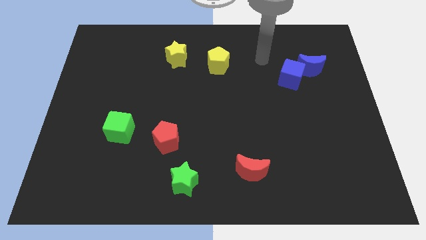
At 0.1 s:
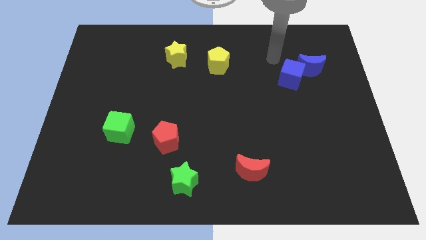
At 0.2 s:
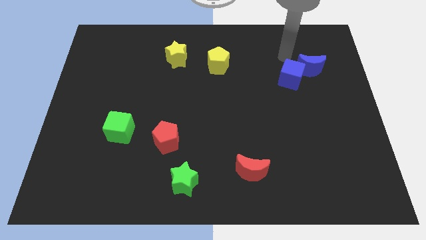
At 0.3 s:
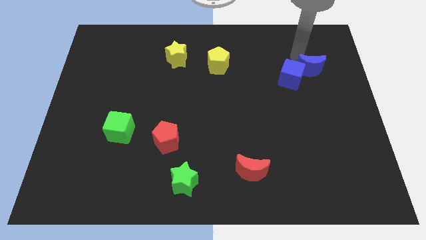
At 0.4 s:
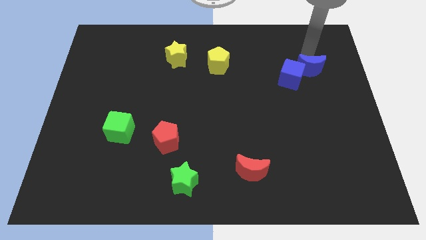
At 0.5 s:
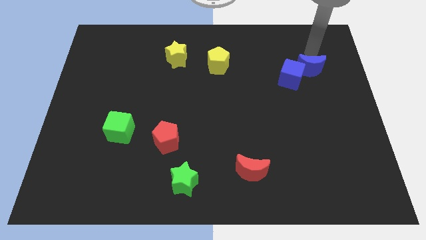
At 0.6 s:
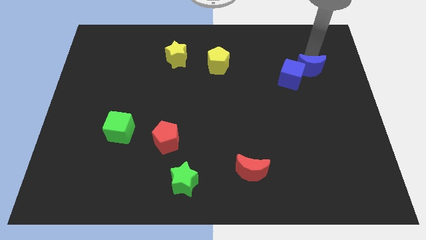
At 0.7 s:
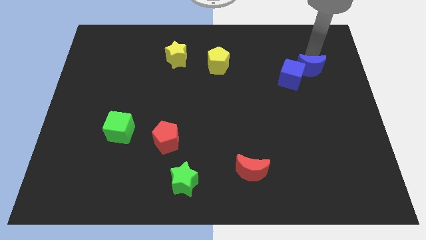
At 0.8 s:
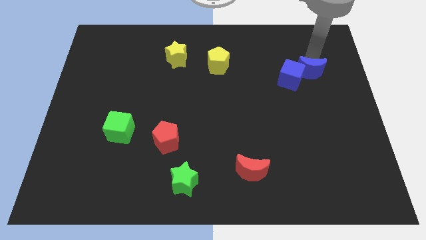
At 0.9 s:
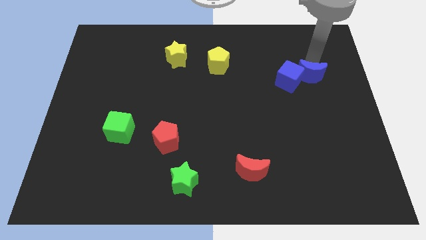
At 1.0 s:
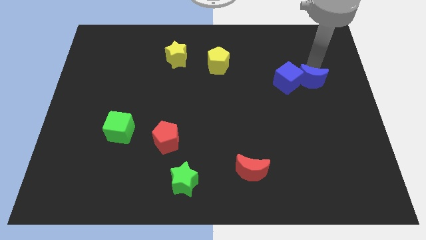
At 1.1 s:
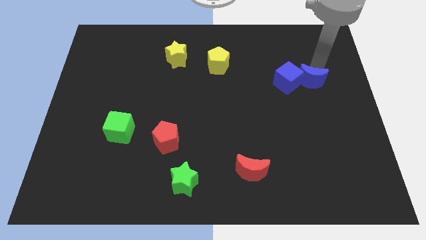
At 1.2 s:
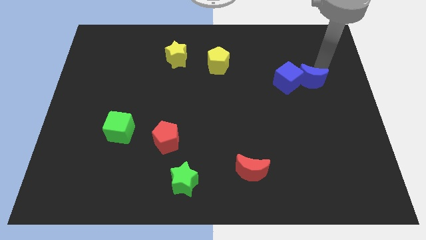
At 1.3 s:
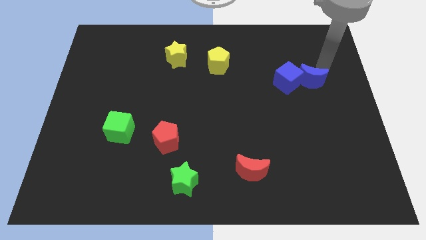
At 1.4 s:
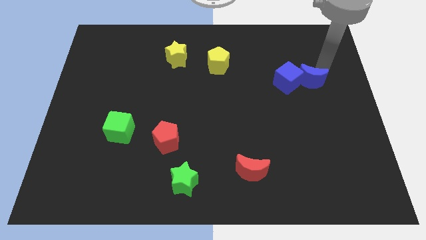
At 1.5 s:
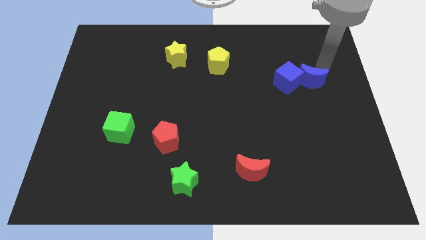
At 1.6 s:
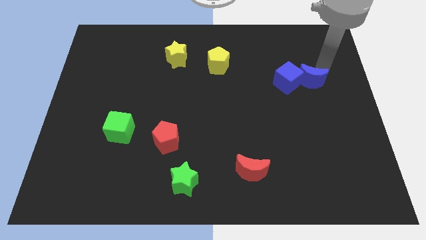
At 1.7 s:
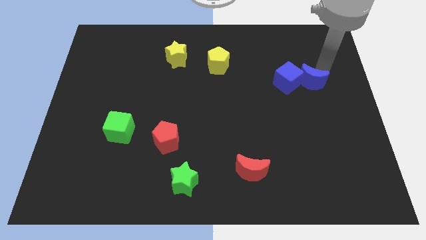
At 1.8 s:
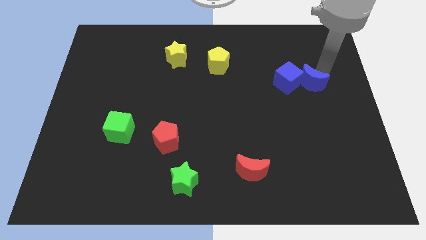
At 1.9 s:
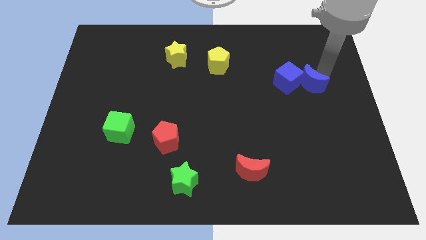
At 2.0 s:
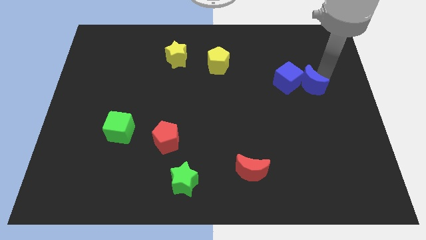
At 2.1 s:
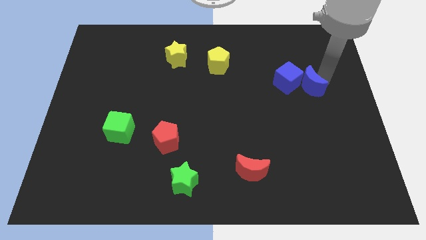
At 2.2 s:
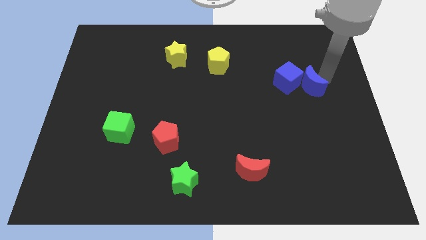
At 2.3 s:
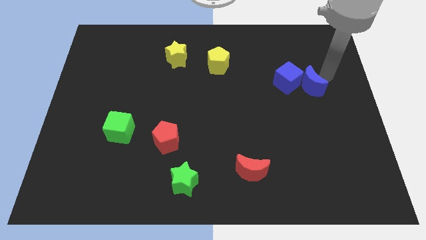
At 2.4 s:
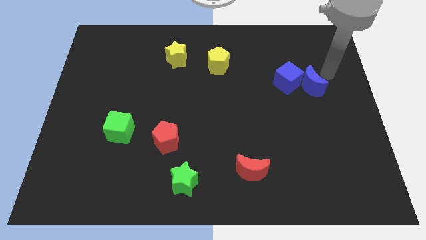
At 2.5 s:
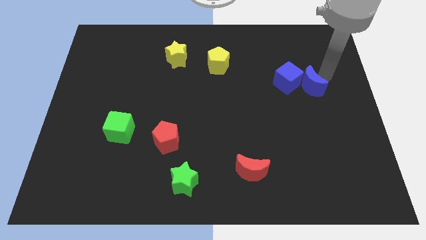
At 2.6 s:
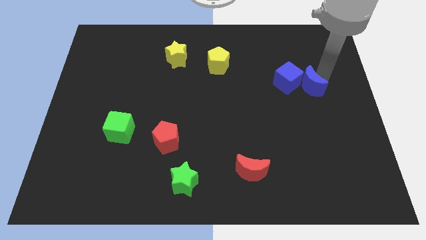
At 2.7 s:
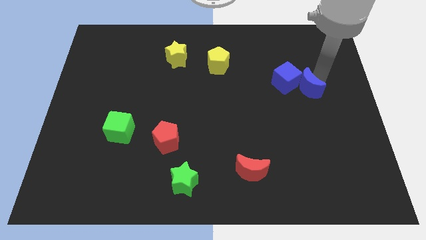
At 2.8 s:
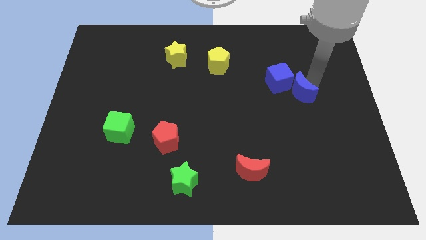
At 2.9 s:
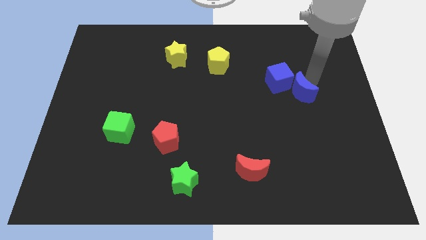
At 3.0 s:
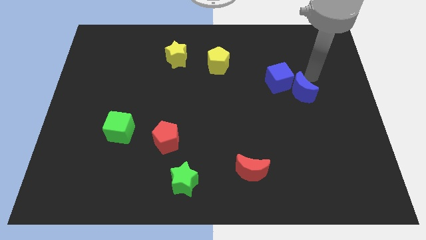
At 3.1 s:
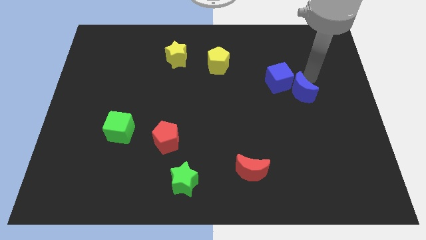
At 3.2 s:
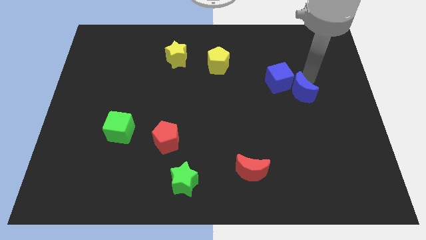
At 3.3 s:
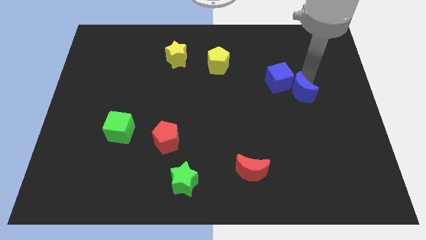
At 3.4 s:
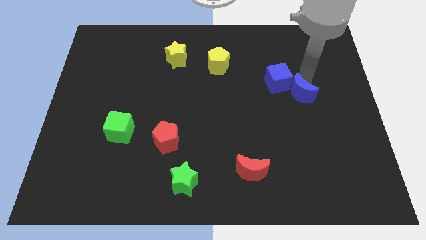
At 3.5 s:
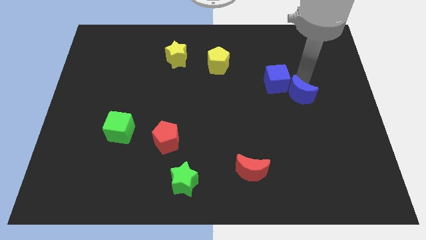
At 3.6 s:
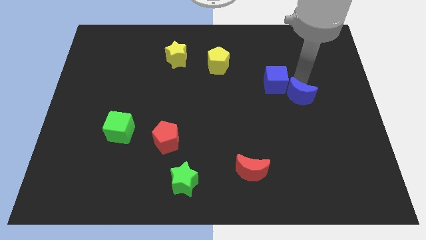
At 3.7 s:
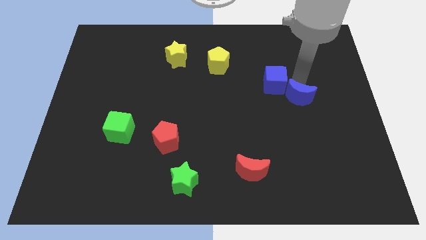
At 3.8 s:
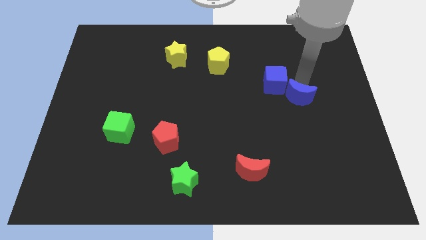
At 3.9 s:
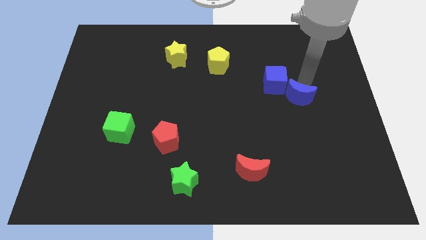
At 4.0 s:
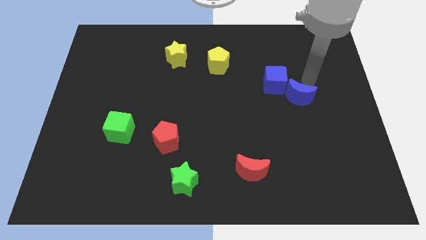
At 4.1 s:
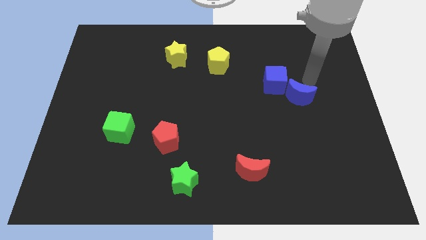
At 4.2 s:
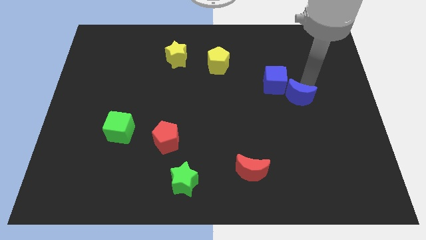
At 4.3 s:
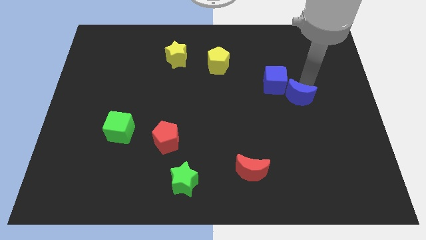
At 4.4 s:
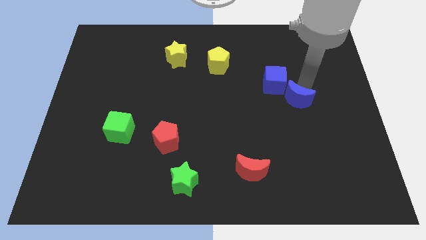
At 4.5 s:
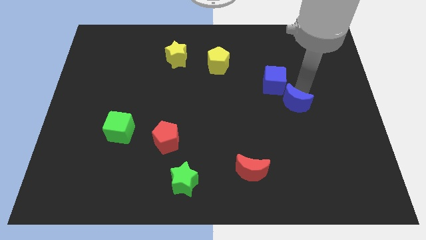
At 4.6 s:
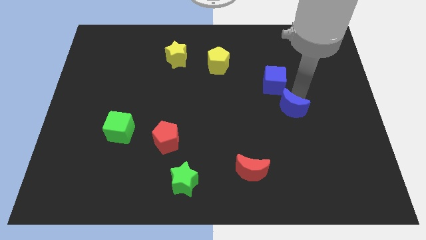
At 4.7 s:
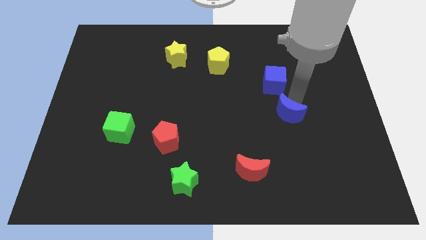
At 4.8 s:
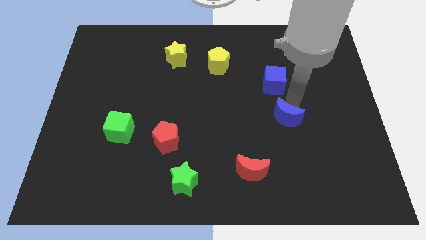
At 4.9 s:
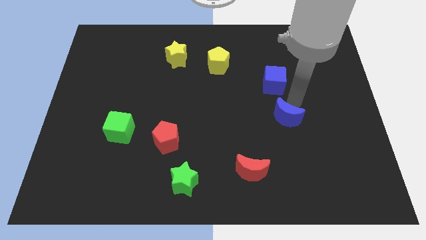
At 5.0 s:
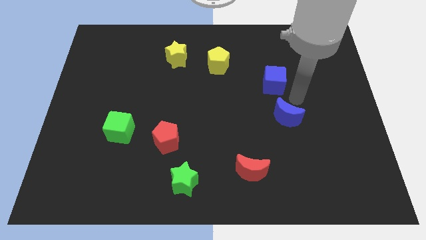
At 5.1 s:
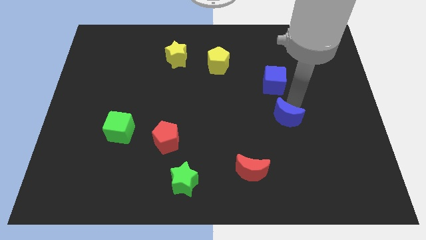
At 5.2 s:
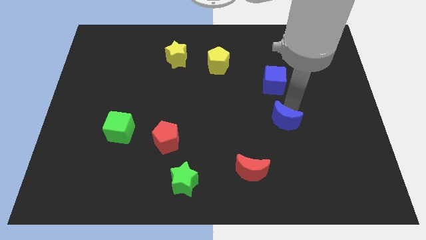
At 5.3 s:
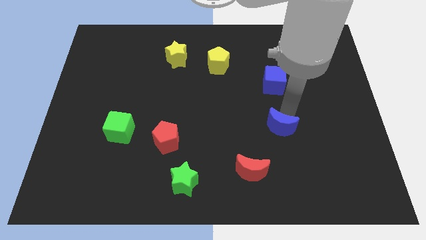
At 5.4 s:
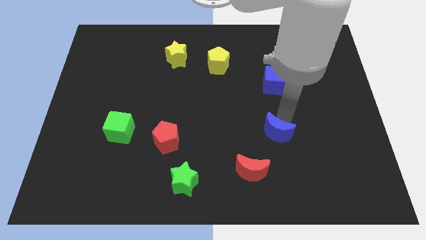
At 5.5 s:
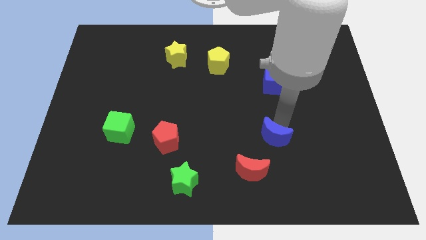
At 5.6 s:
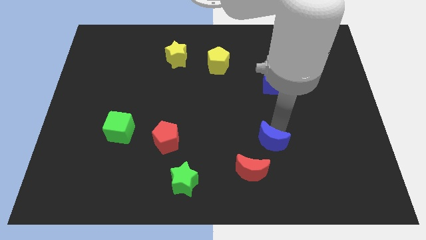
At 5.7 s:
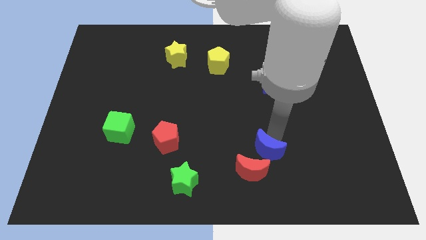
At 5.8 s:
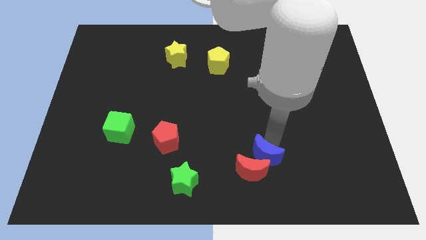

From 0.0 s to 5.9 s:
slide the blue moon towards the red moon
